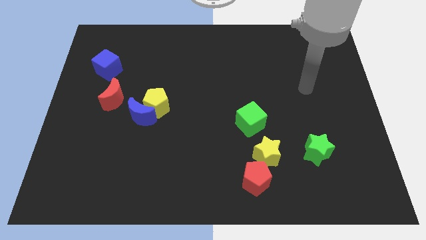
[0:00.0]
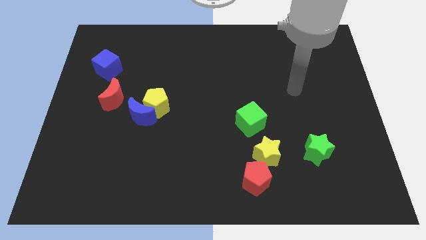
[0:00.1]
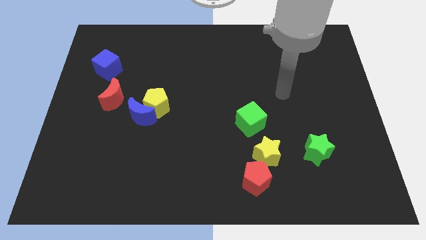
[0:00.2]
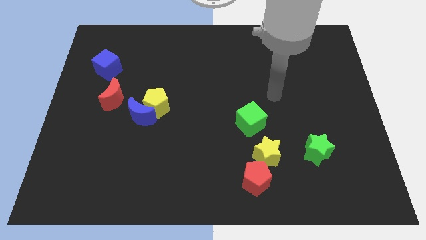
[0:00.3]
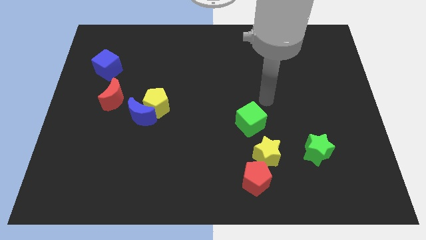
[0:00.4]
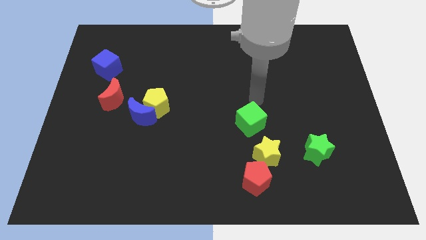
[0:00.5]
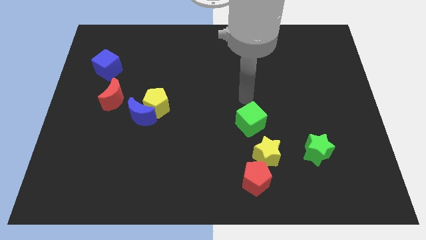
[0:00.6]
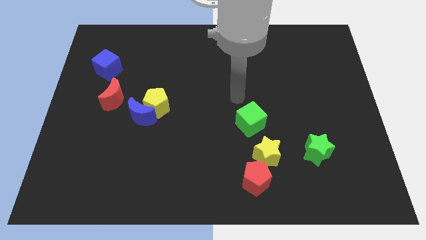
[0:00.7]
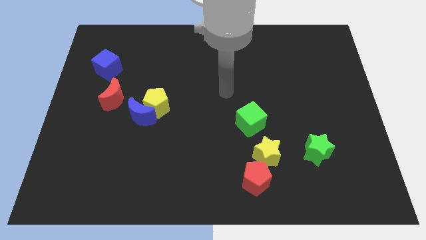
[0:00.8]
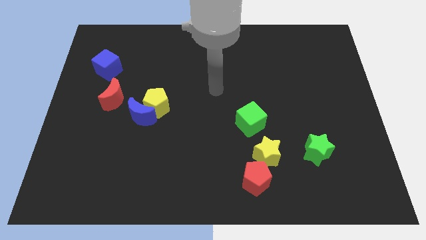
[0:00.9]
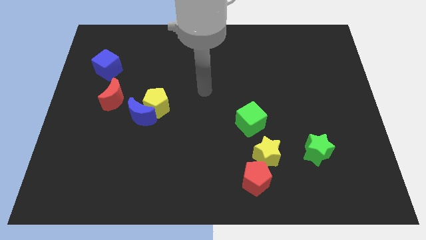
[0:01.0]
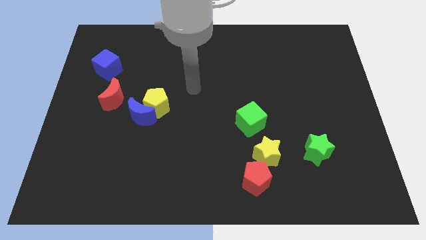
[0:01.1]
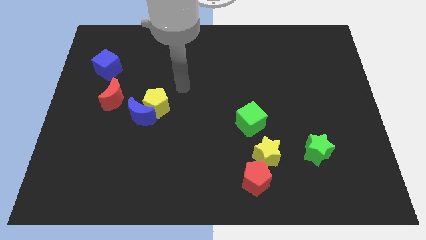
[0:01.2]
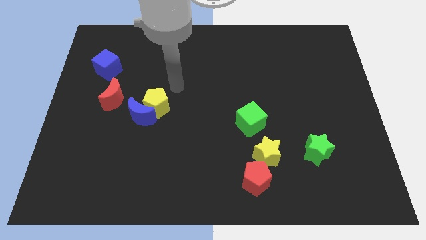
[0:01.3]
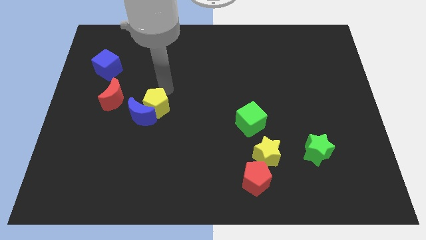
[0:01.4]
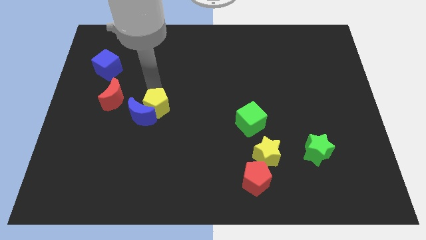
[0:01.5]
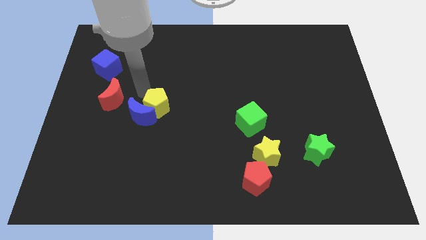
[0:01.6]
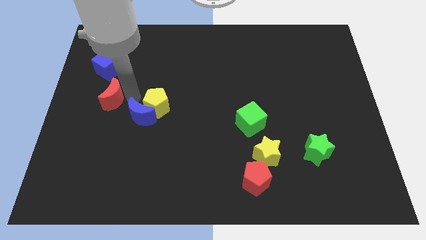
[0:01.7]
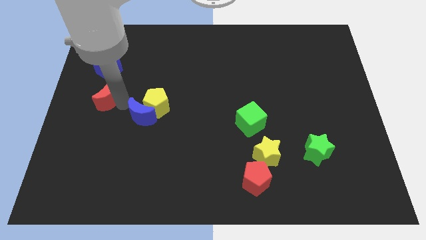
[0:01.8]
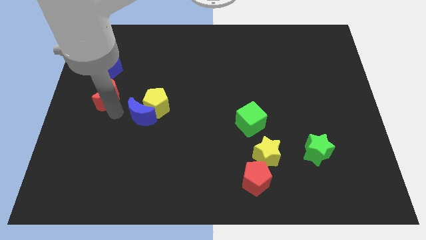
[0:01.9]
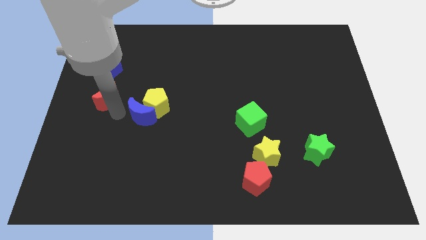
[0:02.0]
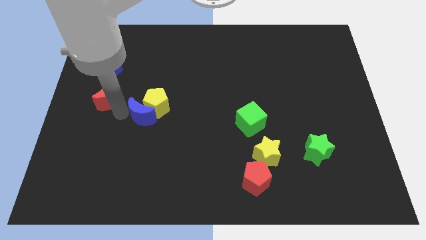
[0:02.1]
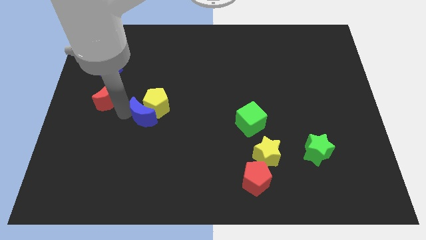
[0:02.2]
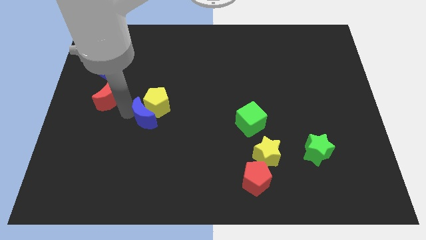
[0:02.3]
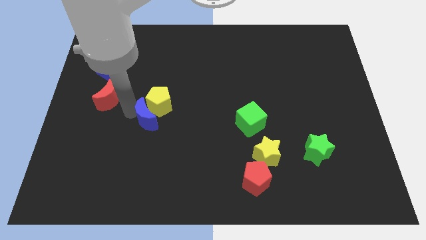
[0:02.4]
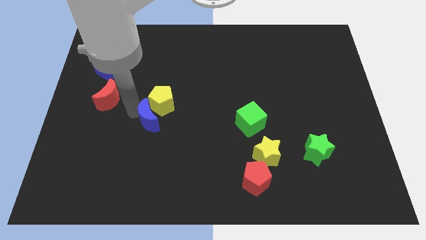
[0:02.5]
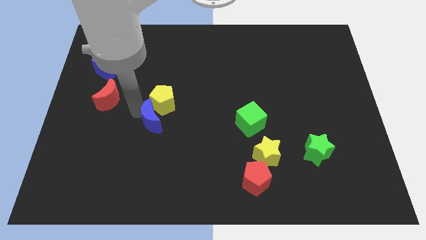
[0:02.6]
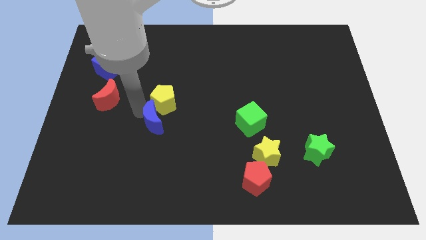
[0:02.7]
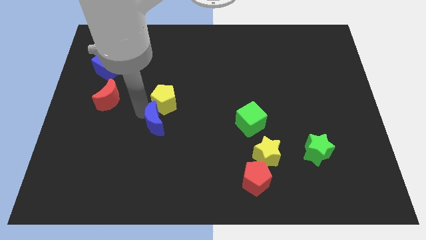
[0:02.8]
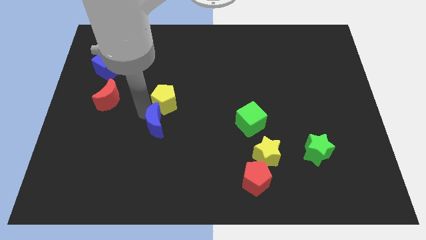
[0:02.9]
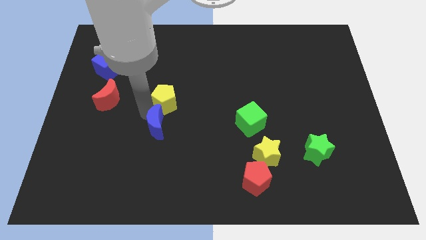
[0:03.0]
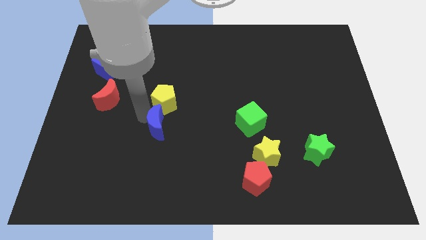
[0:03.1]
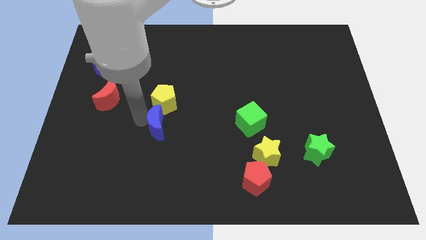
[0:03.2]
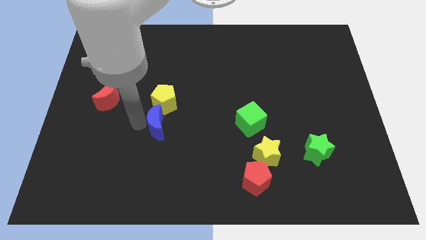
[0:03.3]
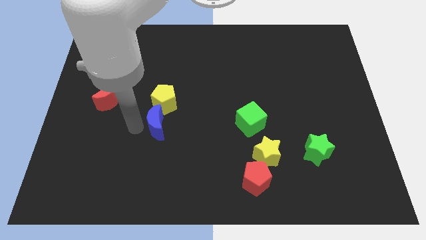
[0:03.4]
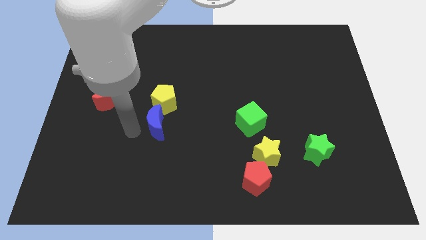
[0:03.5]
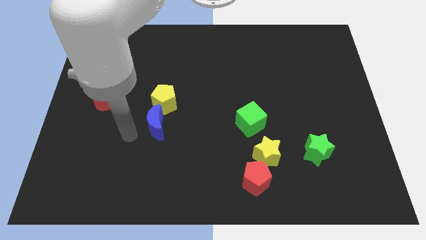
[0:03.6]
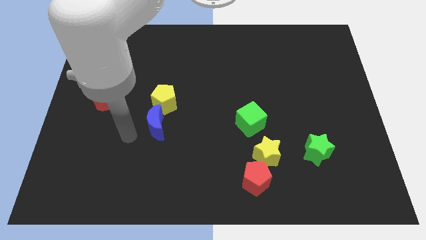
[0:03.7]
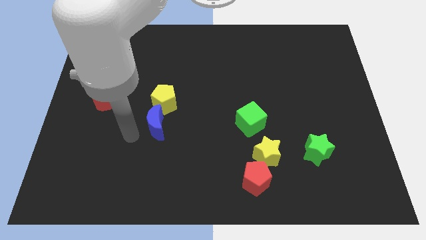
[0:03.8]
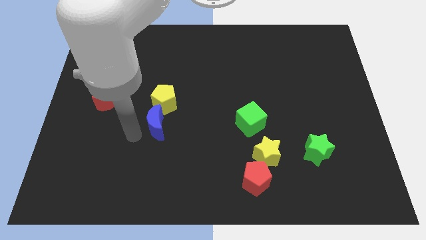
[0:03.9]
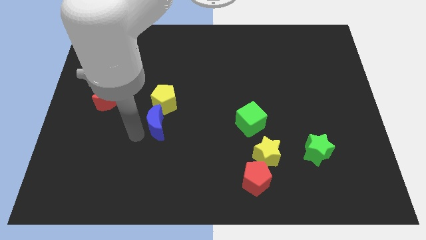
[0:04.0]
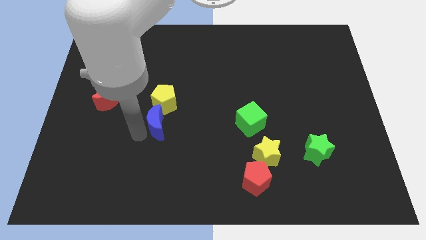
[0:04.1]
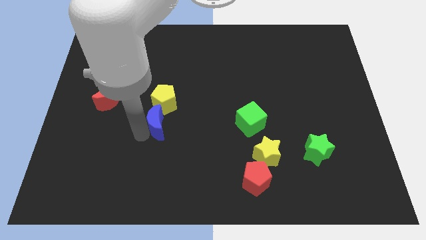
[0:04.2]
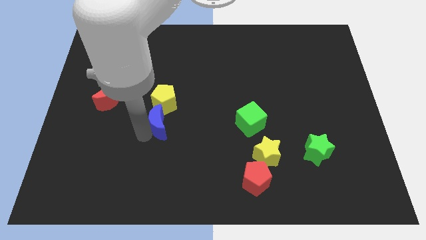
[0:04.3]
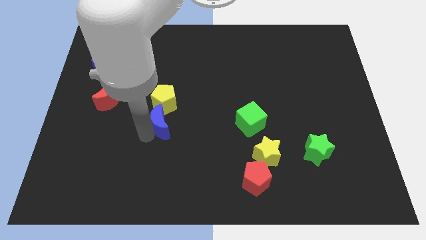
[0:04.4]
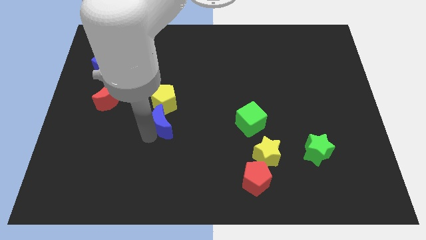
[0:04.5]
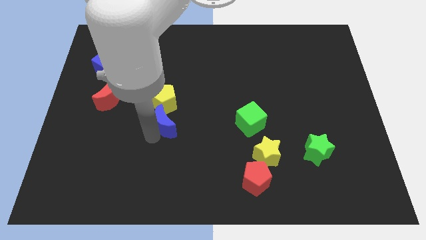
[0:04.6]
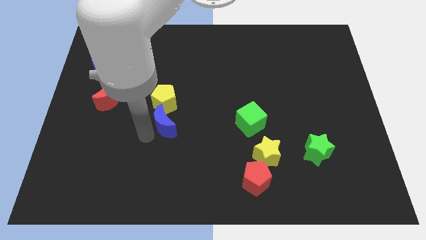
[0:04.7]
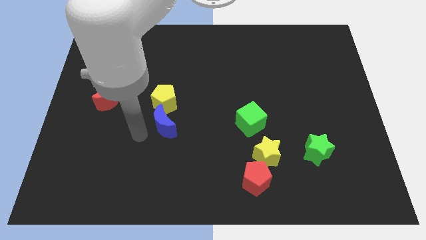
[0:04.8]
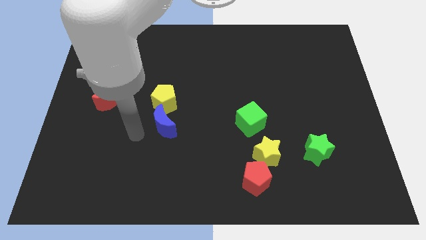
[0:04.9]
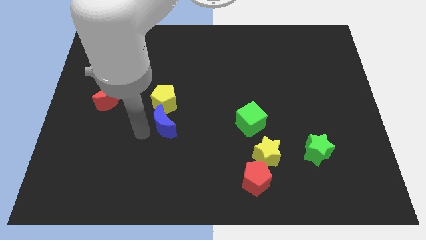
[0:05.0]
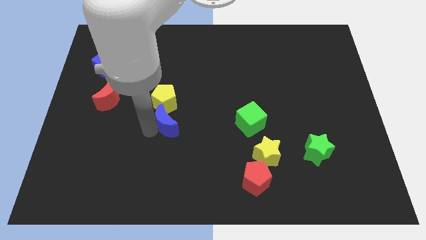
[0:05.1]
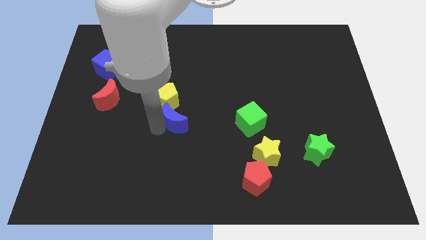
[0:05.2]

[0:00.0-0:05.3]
move the blue moon right a little bit

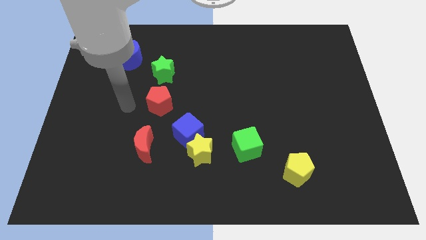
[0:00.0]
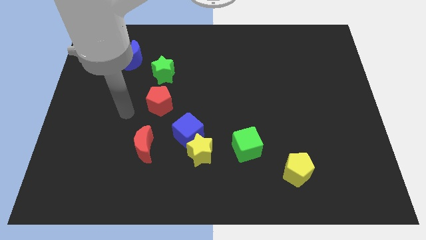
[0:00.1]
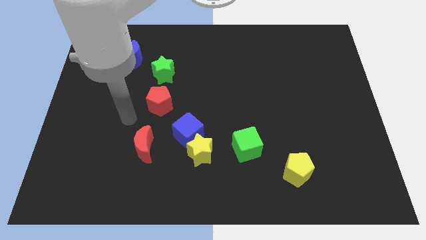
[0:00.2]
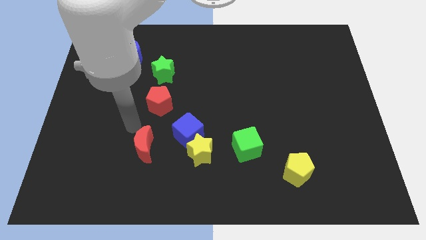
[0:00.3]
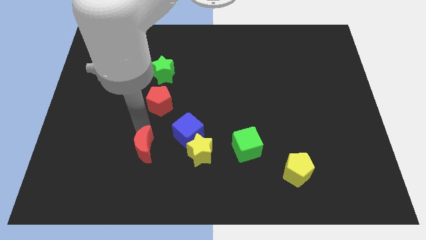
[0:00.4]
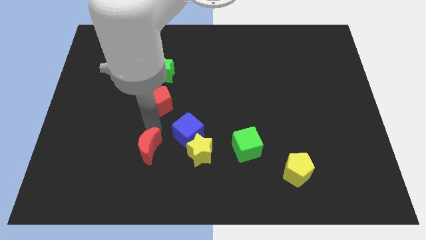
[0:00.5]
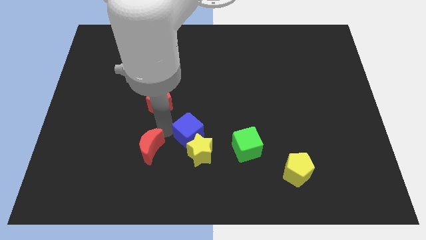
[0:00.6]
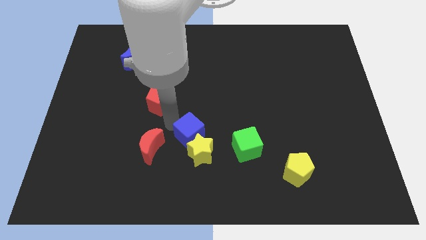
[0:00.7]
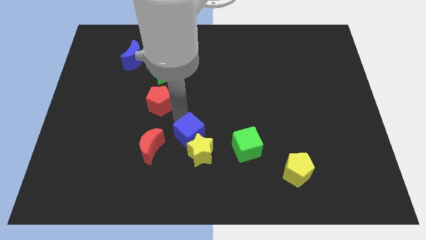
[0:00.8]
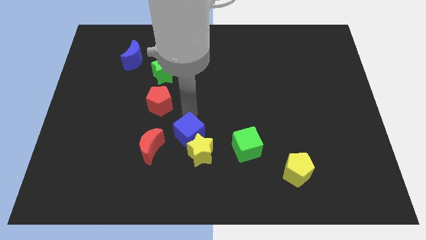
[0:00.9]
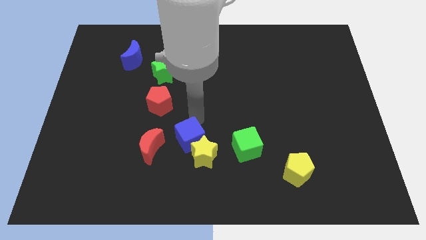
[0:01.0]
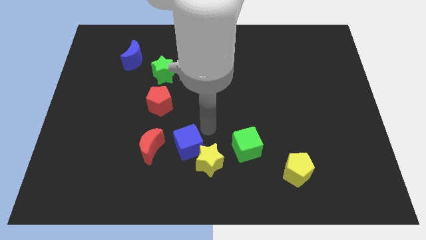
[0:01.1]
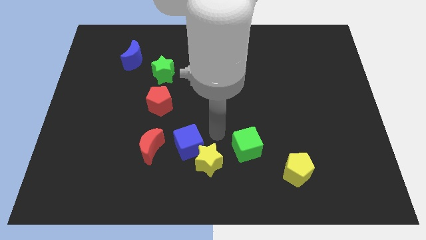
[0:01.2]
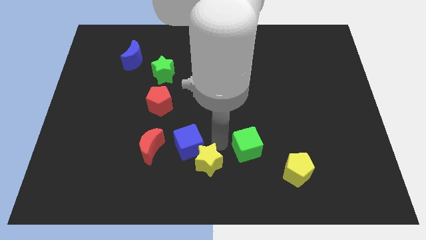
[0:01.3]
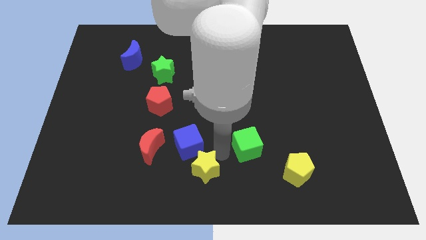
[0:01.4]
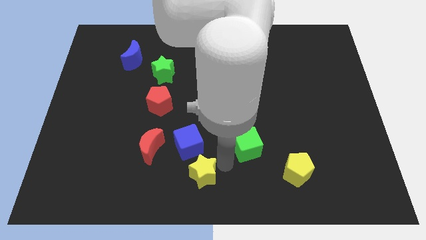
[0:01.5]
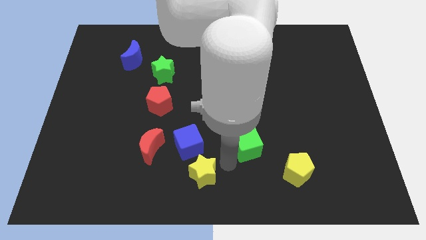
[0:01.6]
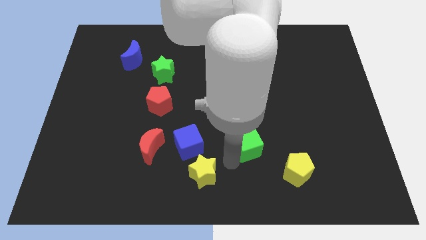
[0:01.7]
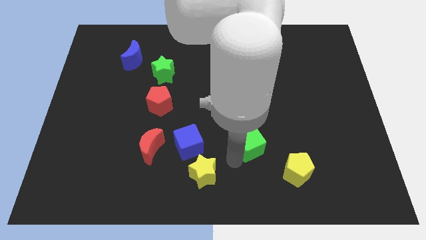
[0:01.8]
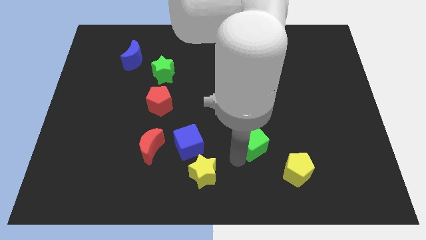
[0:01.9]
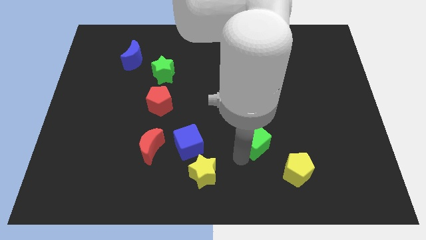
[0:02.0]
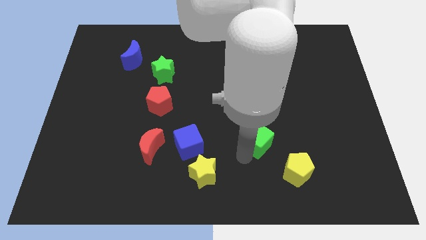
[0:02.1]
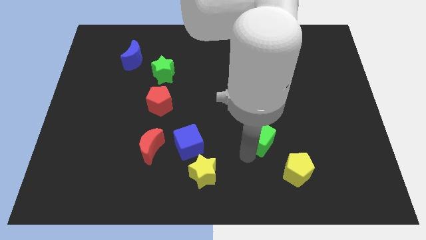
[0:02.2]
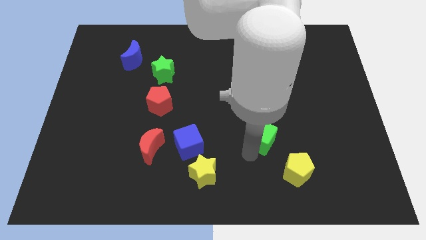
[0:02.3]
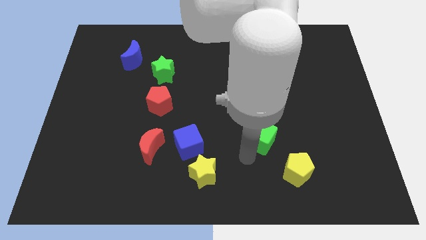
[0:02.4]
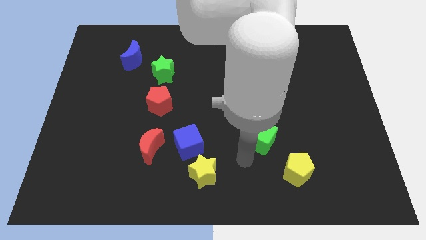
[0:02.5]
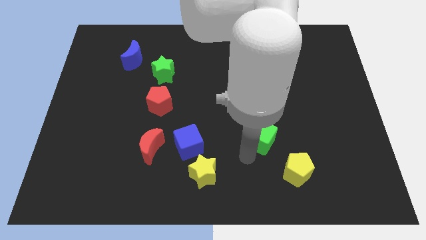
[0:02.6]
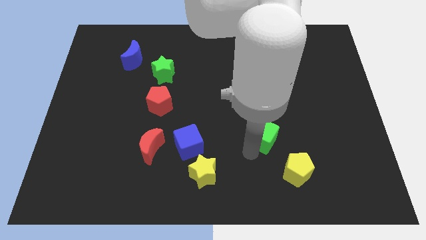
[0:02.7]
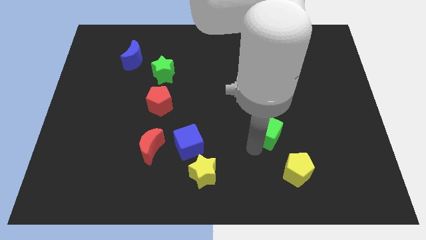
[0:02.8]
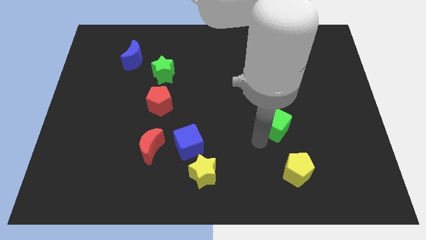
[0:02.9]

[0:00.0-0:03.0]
push the green cube up and to the right diagonally somewhat

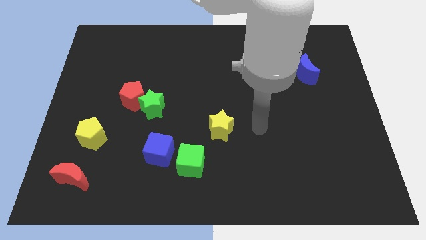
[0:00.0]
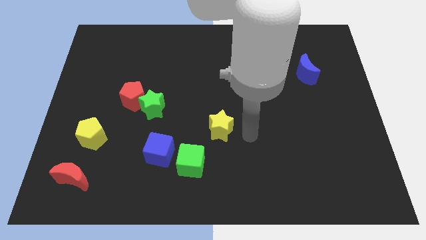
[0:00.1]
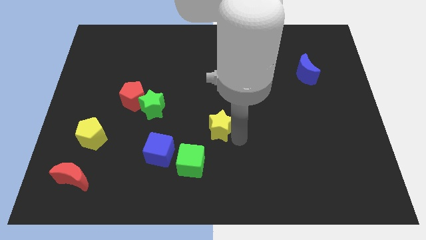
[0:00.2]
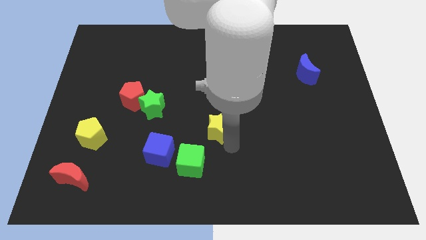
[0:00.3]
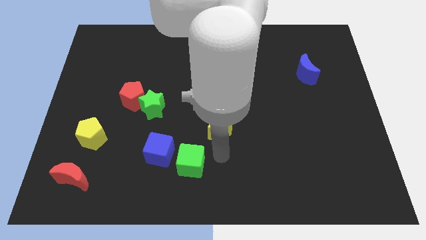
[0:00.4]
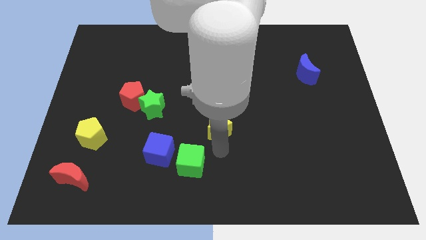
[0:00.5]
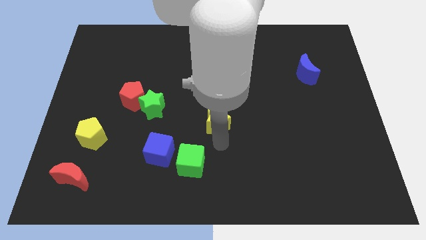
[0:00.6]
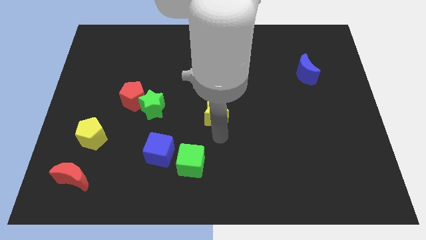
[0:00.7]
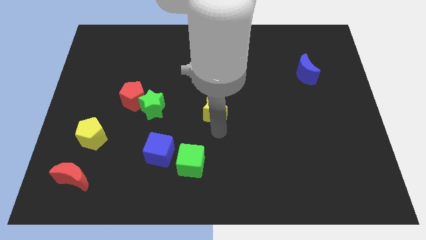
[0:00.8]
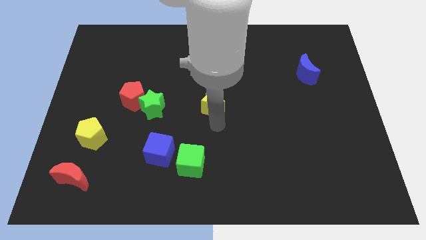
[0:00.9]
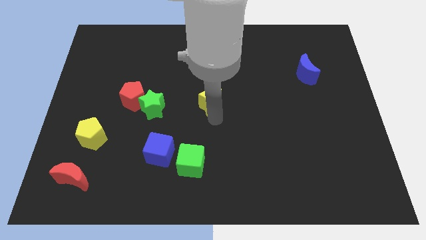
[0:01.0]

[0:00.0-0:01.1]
slide the yellow star somewhat upwards
